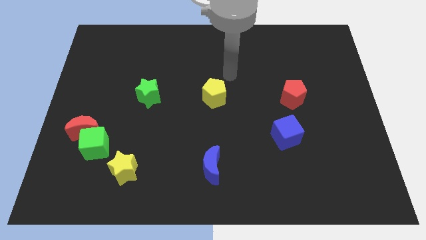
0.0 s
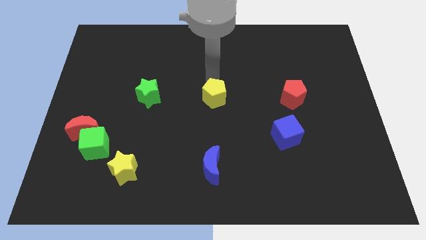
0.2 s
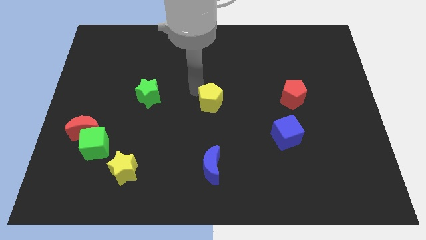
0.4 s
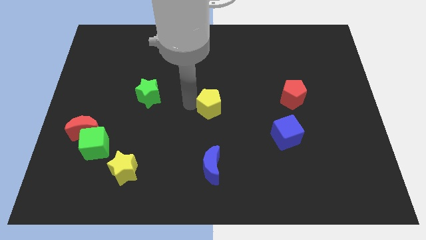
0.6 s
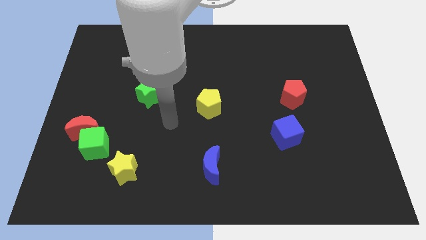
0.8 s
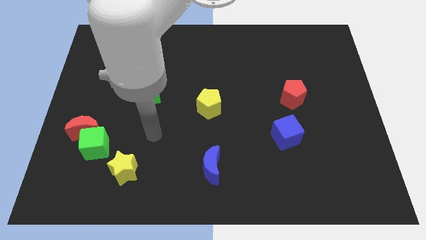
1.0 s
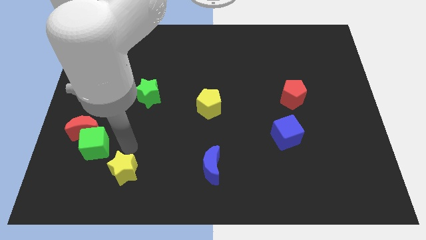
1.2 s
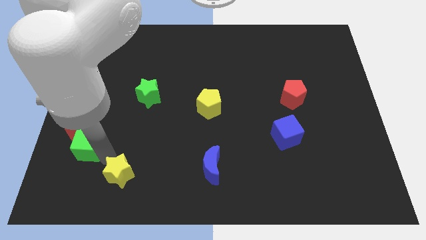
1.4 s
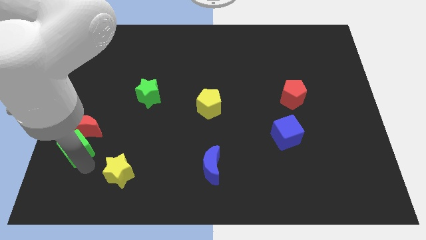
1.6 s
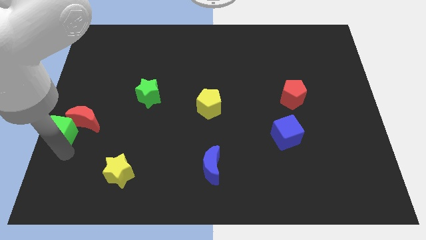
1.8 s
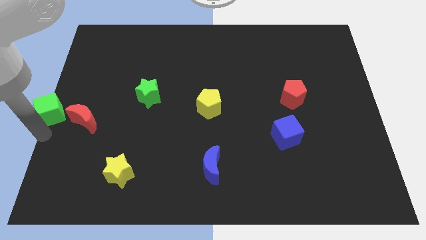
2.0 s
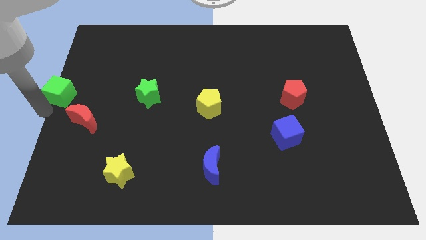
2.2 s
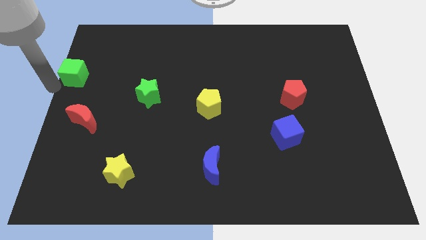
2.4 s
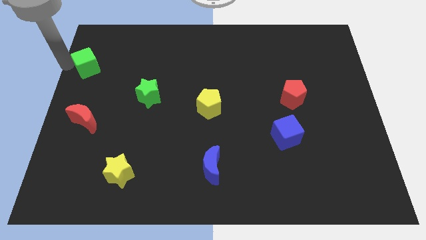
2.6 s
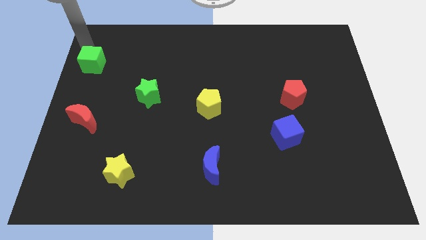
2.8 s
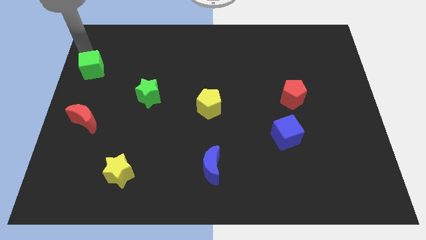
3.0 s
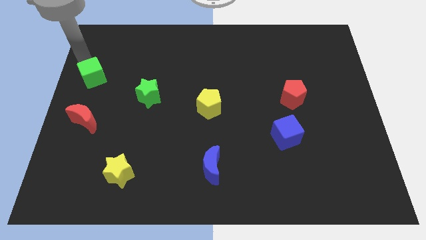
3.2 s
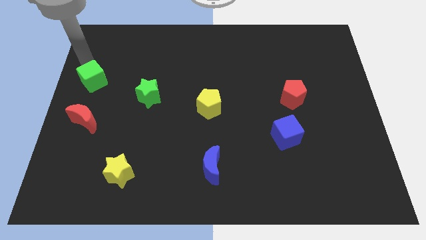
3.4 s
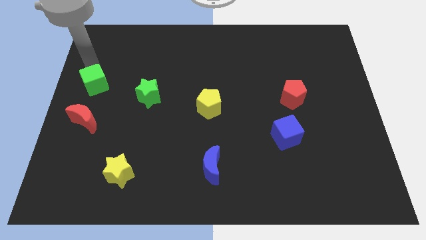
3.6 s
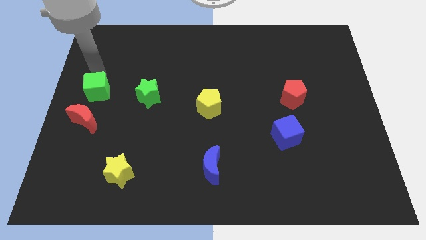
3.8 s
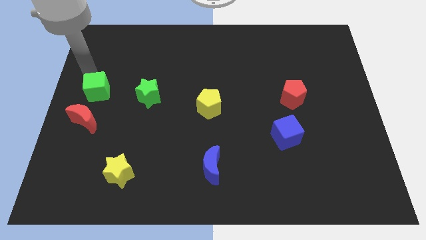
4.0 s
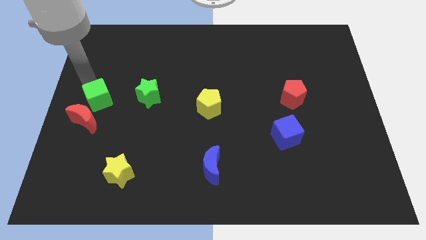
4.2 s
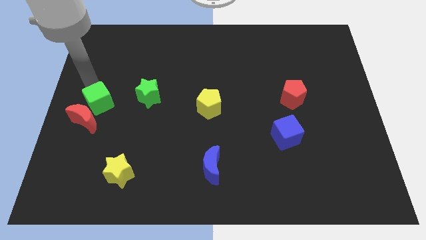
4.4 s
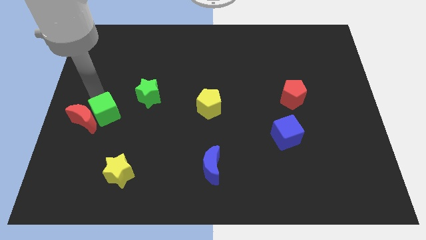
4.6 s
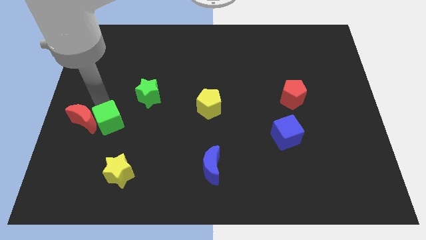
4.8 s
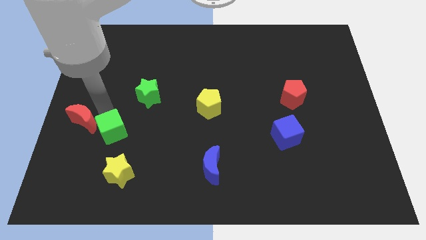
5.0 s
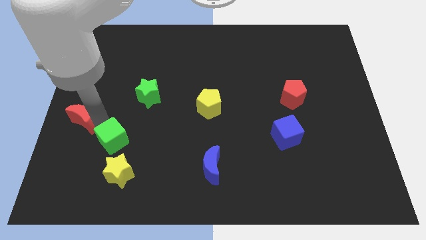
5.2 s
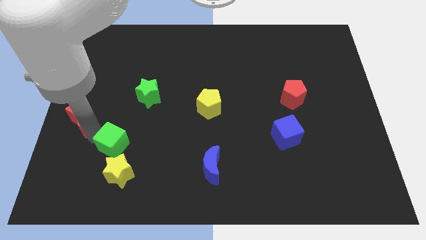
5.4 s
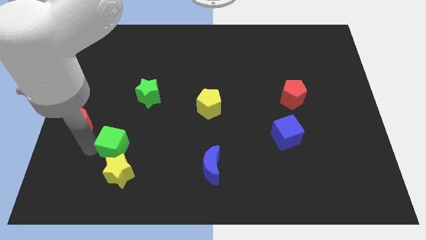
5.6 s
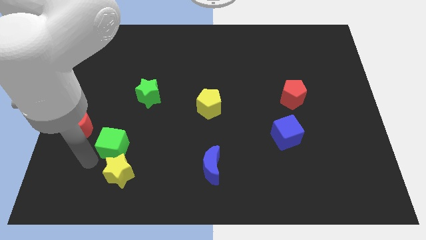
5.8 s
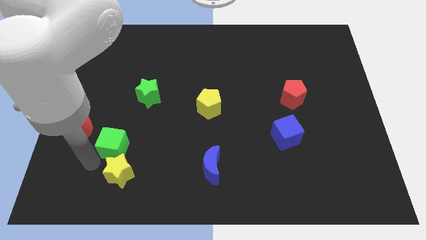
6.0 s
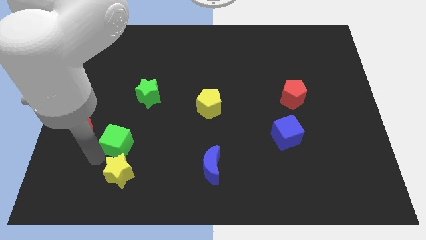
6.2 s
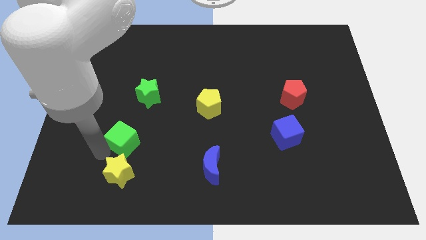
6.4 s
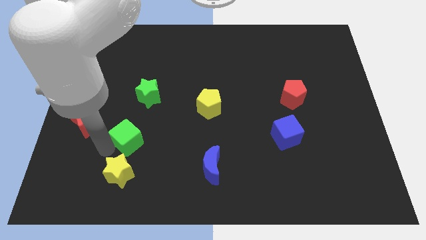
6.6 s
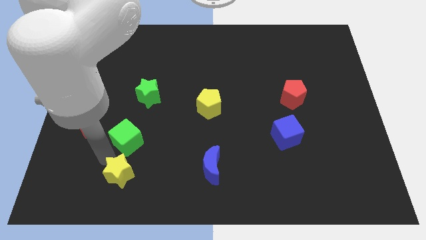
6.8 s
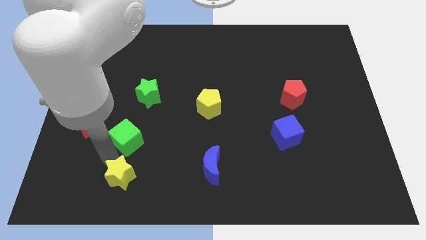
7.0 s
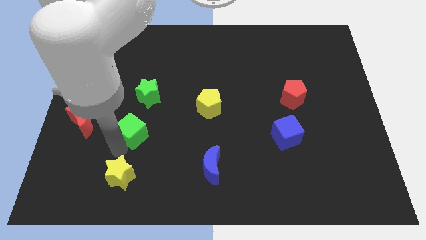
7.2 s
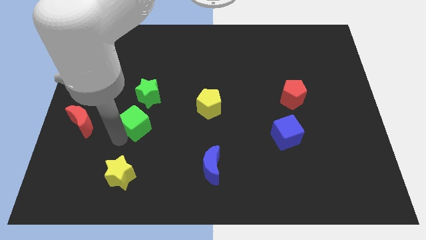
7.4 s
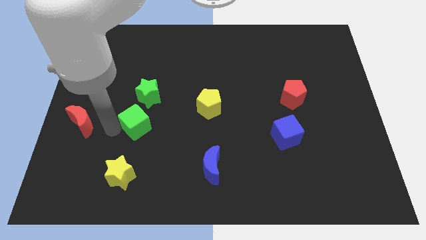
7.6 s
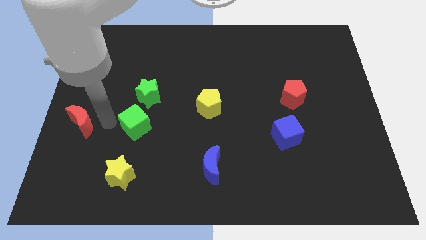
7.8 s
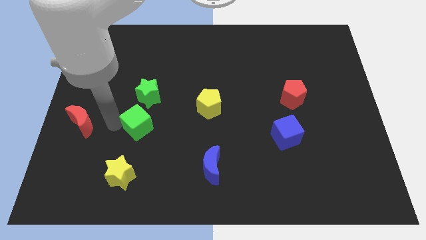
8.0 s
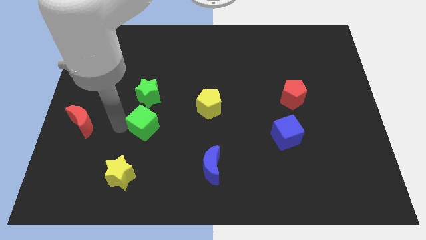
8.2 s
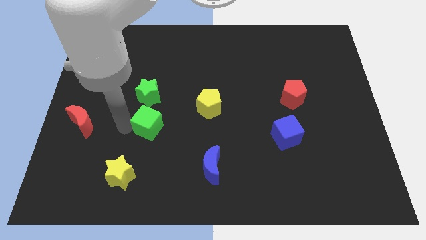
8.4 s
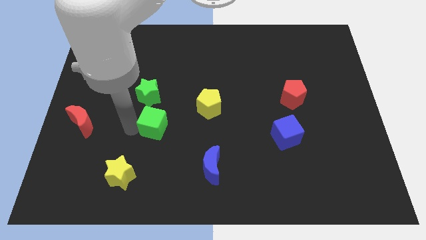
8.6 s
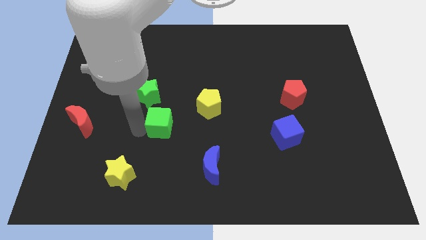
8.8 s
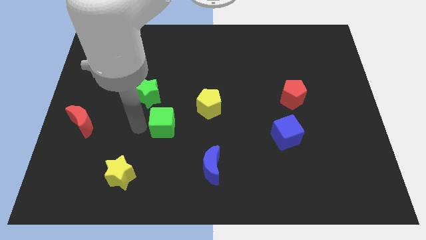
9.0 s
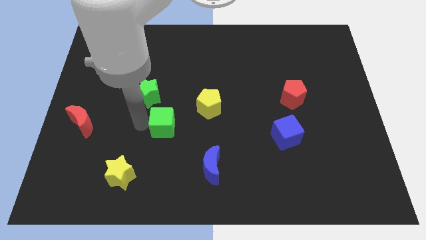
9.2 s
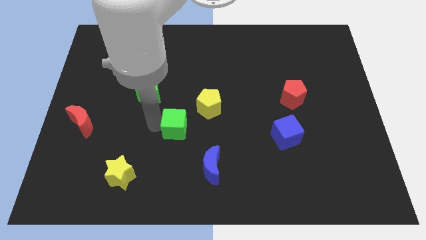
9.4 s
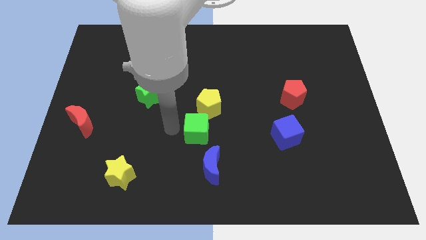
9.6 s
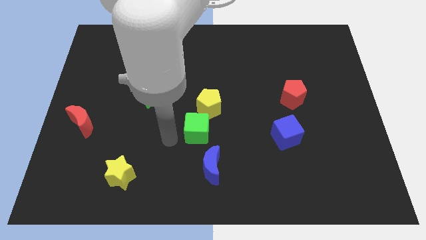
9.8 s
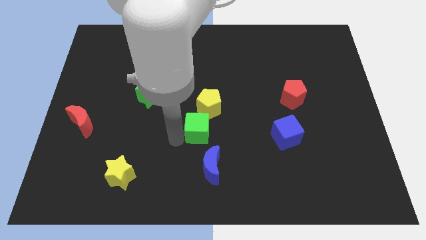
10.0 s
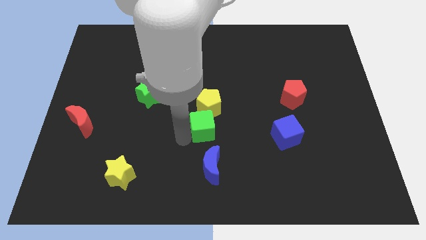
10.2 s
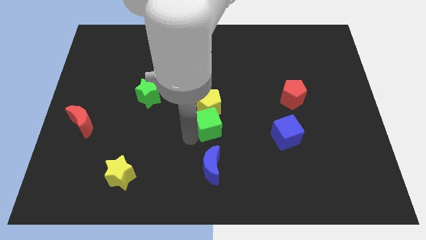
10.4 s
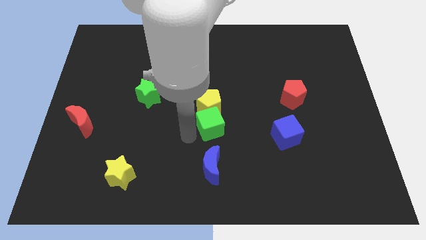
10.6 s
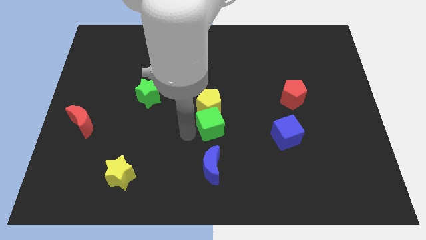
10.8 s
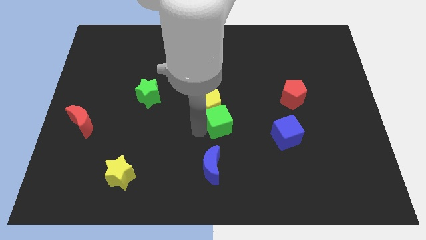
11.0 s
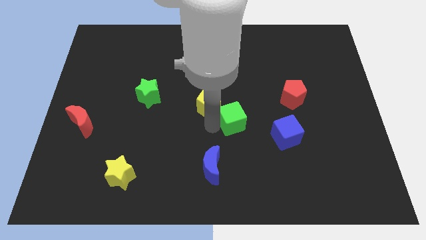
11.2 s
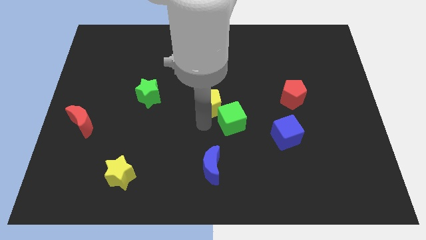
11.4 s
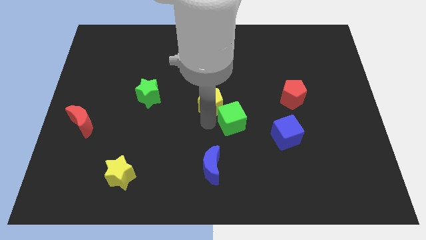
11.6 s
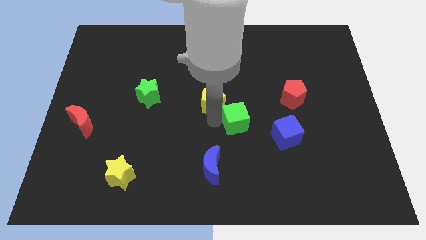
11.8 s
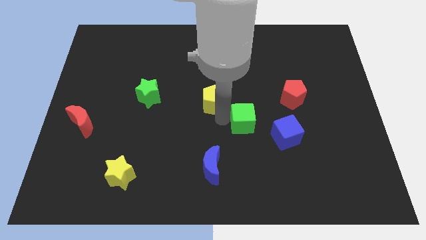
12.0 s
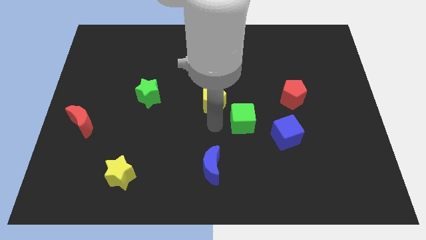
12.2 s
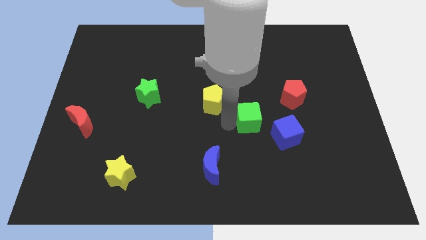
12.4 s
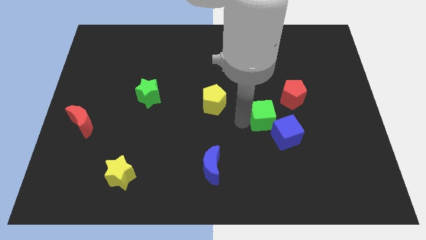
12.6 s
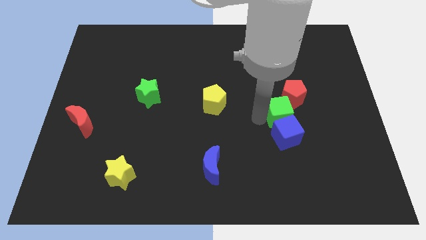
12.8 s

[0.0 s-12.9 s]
push the green cube diagonally up and to the right of the blue cube

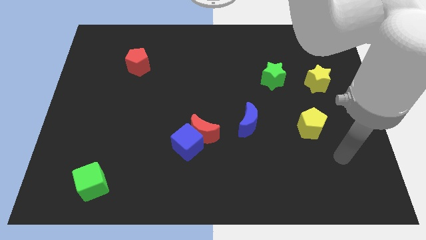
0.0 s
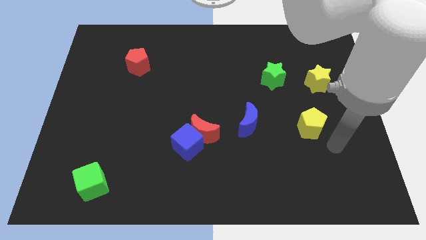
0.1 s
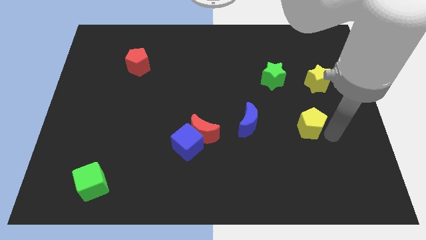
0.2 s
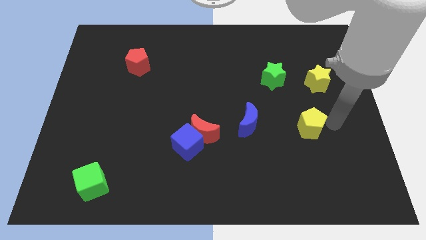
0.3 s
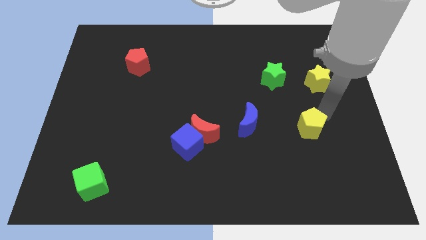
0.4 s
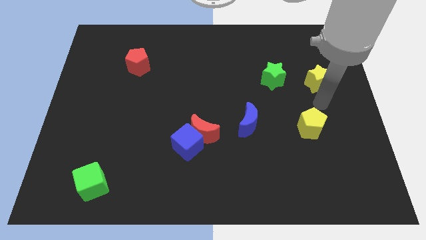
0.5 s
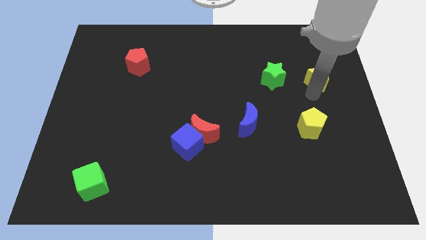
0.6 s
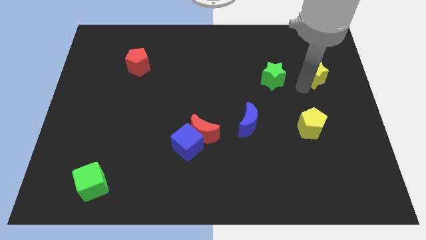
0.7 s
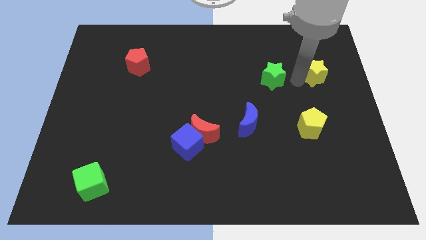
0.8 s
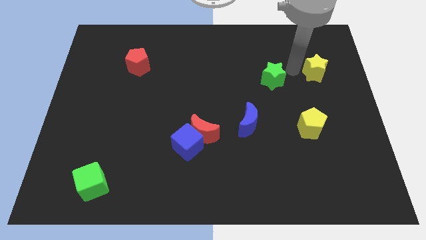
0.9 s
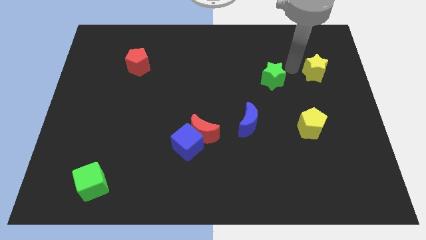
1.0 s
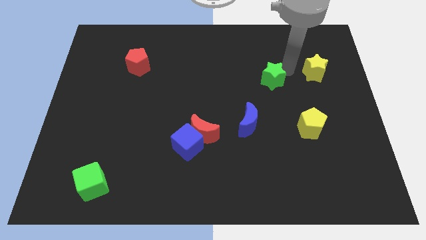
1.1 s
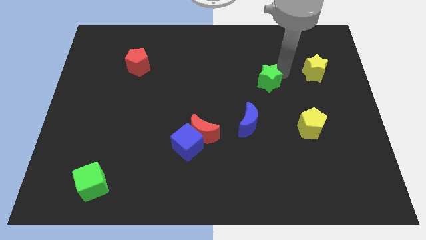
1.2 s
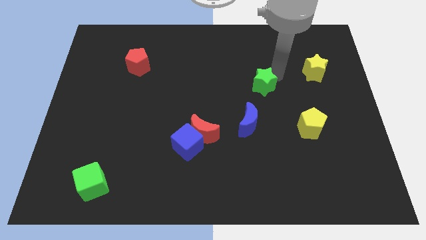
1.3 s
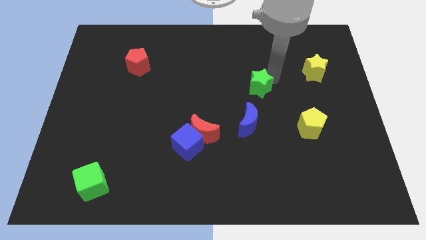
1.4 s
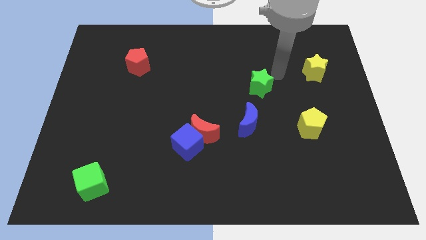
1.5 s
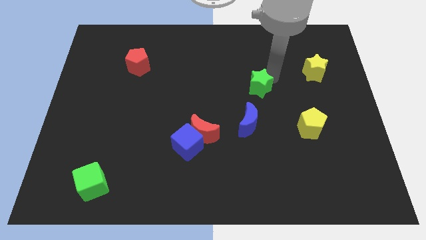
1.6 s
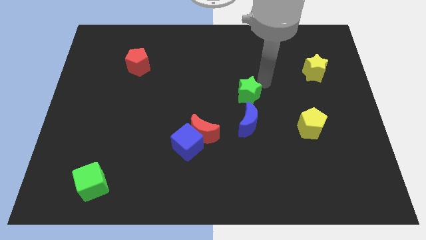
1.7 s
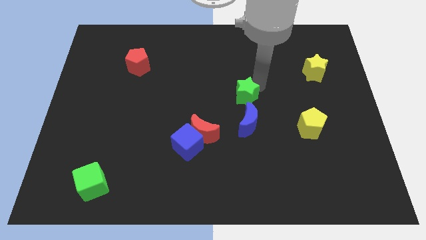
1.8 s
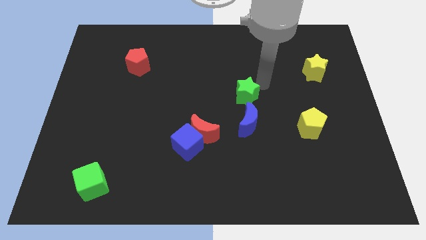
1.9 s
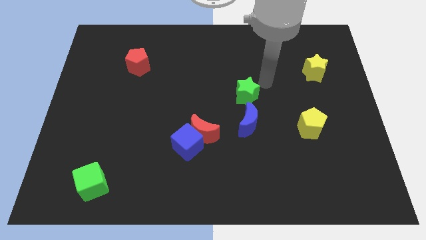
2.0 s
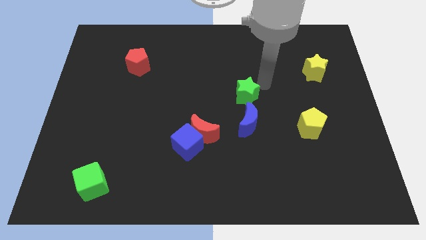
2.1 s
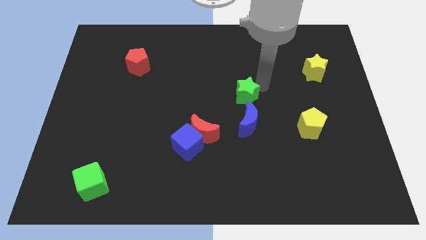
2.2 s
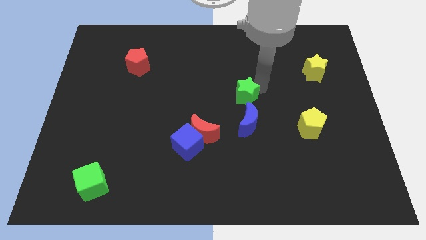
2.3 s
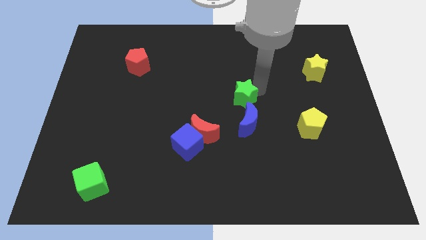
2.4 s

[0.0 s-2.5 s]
put the green star diagonally up and to the left of the blue moon
